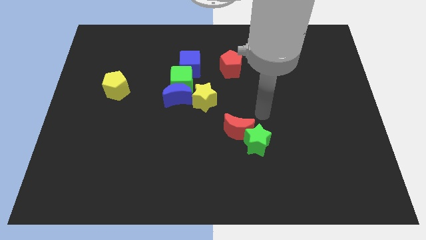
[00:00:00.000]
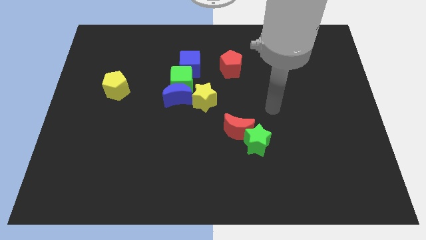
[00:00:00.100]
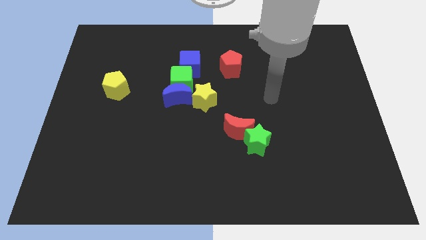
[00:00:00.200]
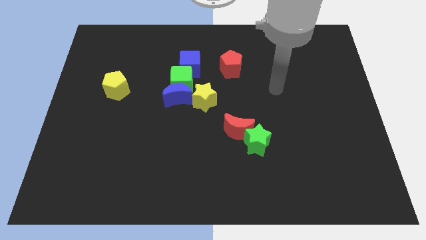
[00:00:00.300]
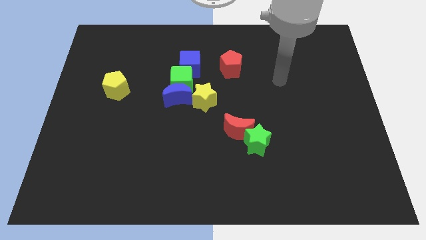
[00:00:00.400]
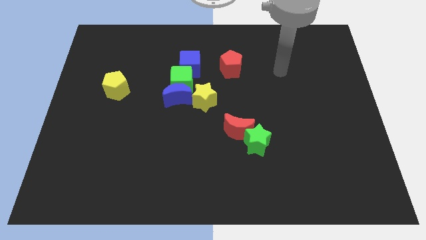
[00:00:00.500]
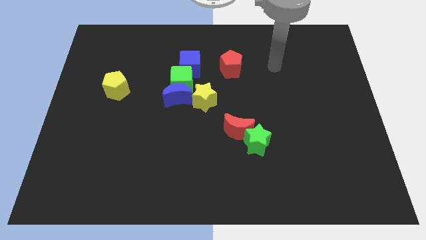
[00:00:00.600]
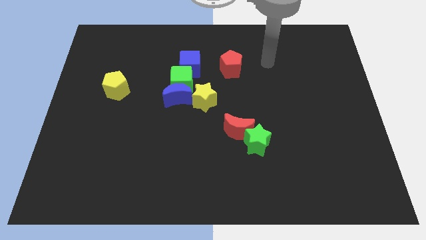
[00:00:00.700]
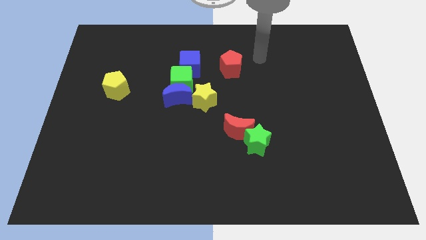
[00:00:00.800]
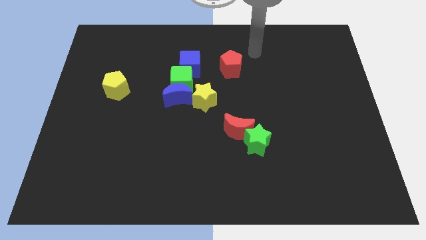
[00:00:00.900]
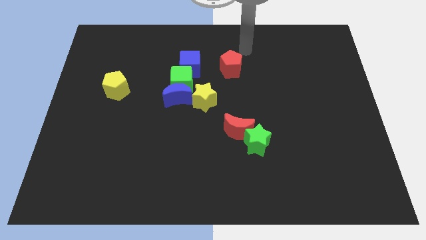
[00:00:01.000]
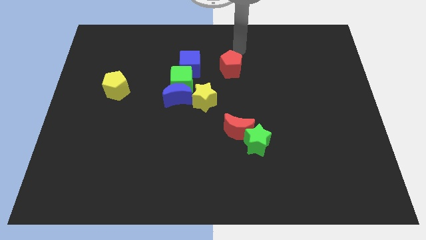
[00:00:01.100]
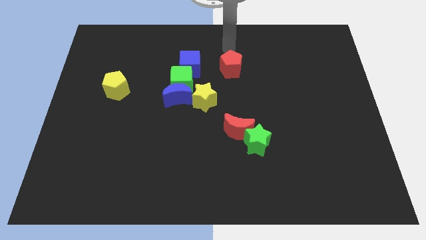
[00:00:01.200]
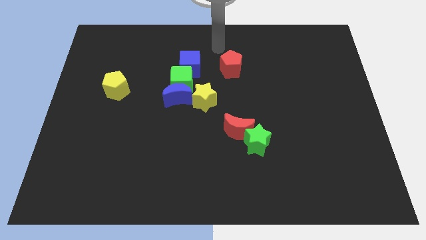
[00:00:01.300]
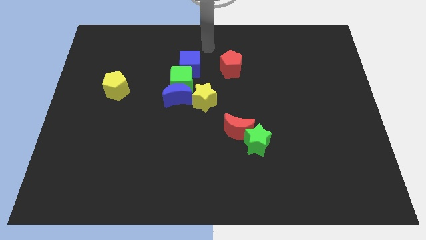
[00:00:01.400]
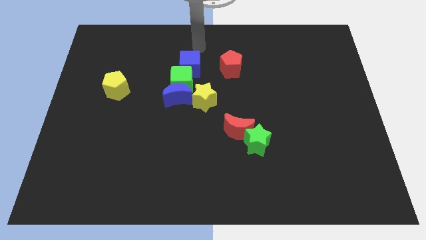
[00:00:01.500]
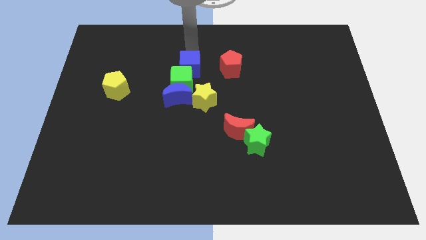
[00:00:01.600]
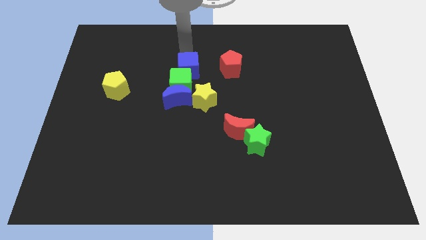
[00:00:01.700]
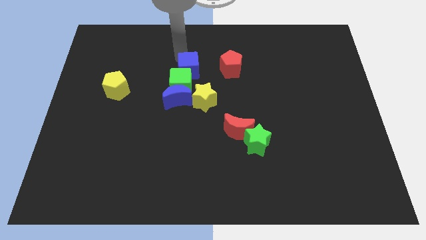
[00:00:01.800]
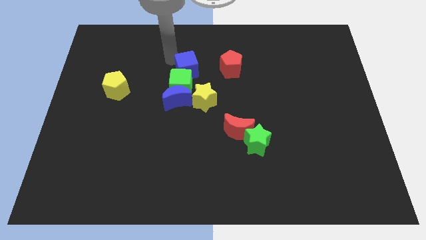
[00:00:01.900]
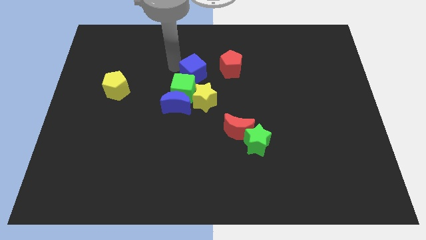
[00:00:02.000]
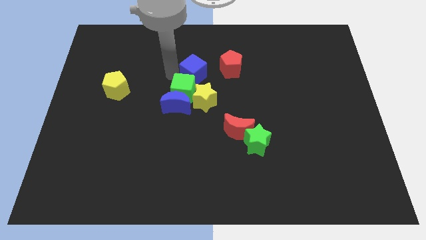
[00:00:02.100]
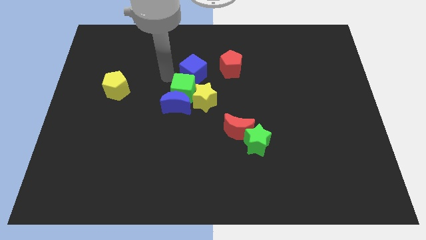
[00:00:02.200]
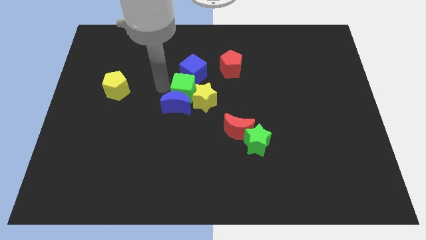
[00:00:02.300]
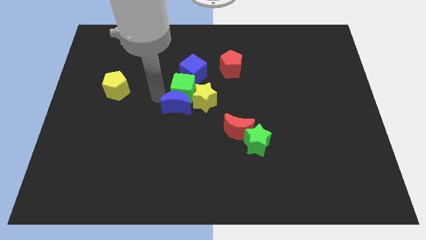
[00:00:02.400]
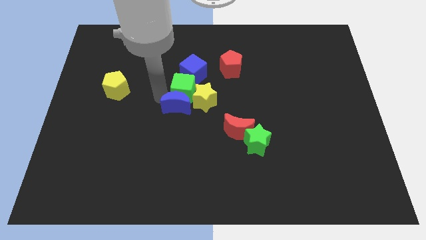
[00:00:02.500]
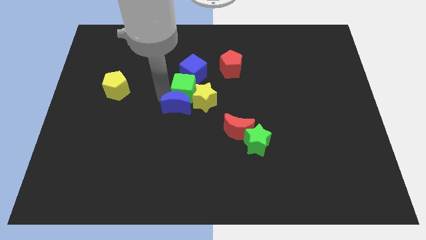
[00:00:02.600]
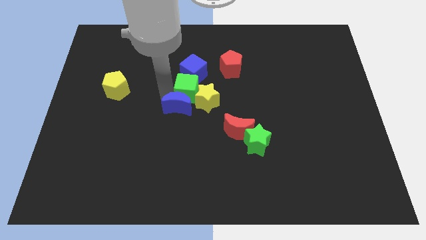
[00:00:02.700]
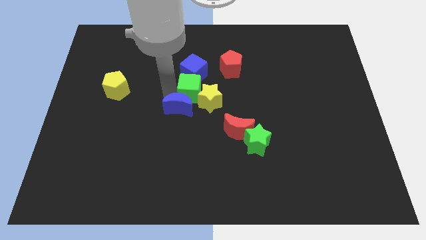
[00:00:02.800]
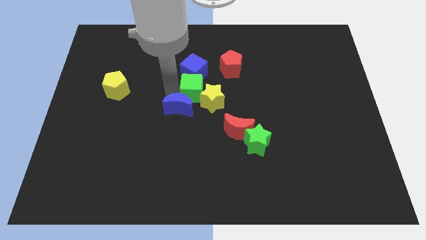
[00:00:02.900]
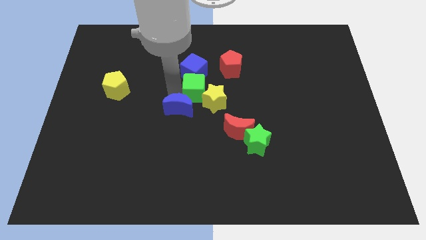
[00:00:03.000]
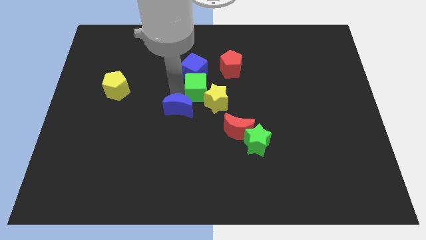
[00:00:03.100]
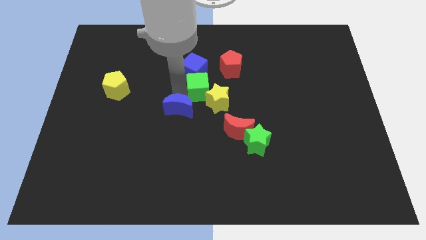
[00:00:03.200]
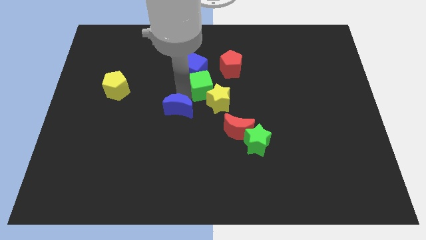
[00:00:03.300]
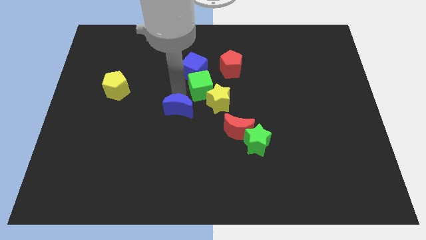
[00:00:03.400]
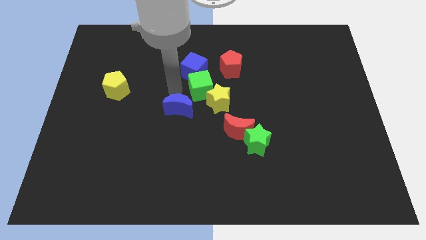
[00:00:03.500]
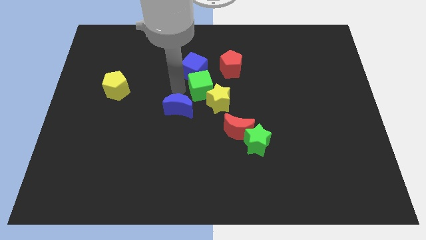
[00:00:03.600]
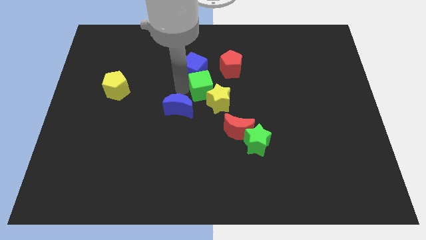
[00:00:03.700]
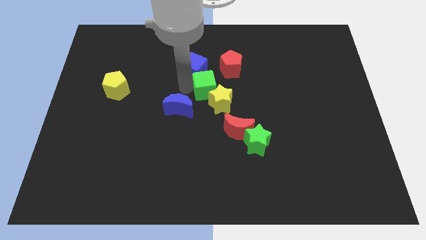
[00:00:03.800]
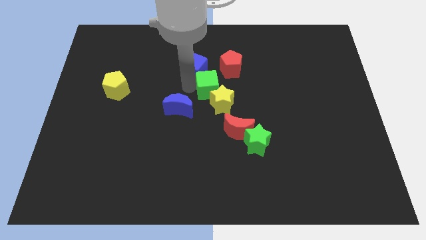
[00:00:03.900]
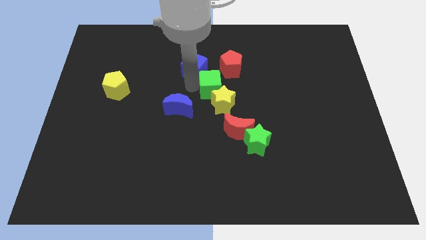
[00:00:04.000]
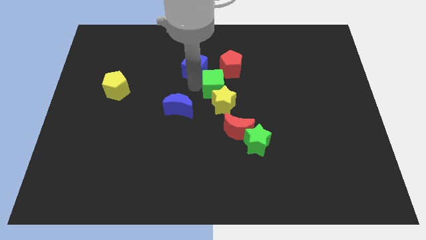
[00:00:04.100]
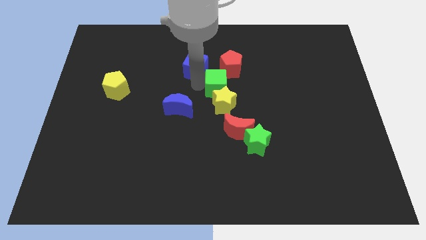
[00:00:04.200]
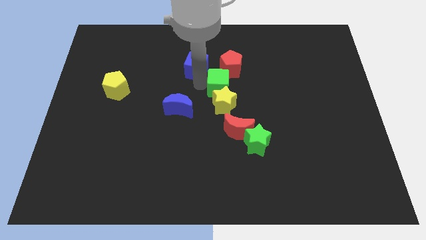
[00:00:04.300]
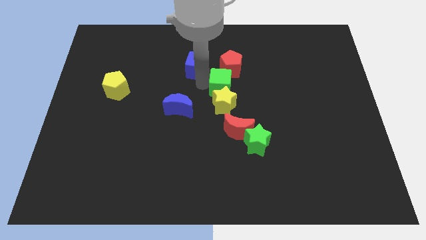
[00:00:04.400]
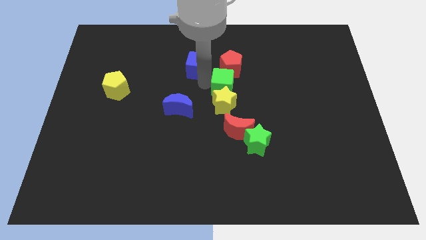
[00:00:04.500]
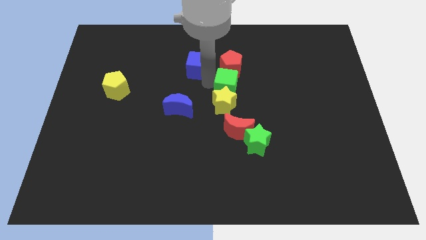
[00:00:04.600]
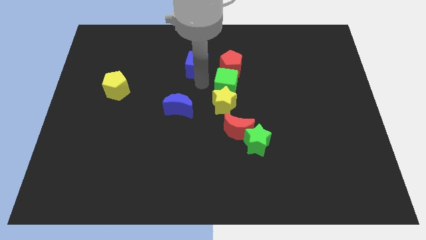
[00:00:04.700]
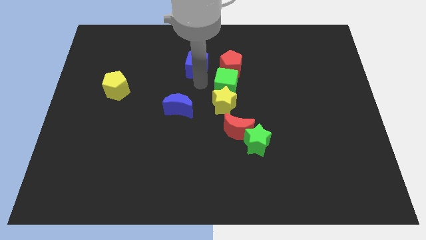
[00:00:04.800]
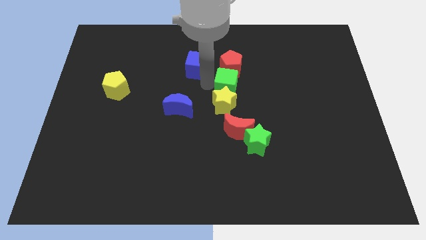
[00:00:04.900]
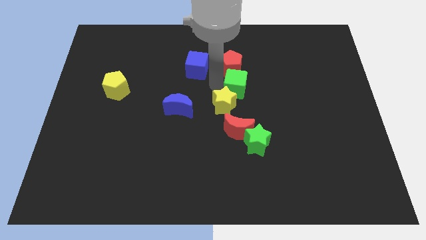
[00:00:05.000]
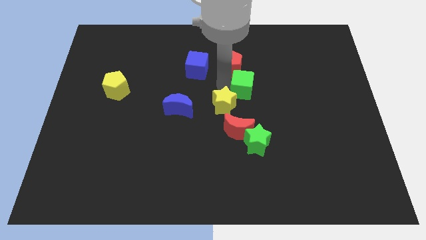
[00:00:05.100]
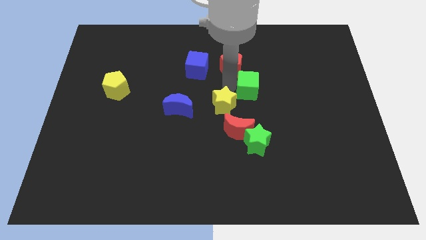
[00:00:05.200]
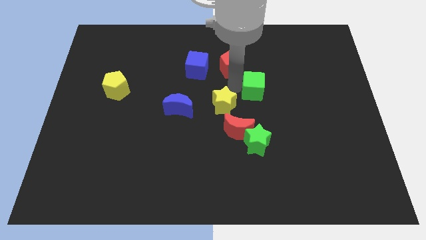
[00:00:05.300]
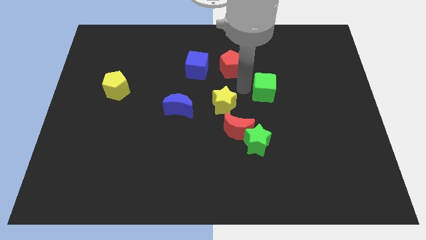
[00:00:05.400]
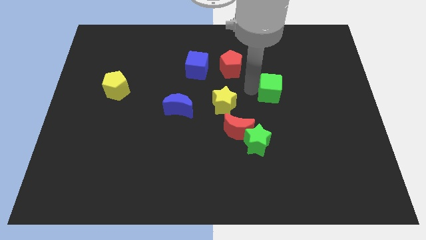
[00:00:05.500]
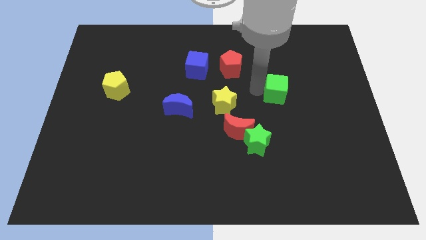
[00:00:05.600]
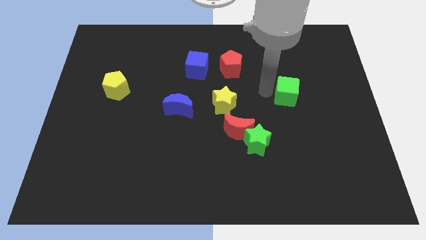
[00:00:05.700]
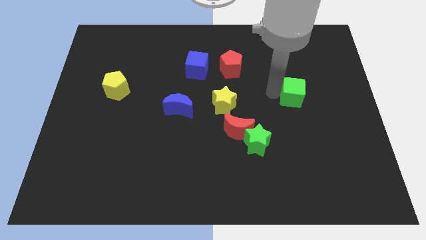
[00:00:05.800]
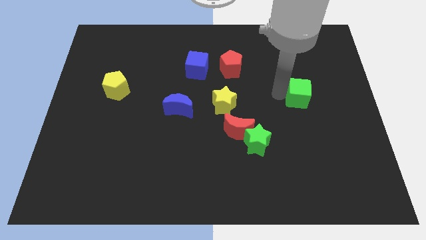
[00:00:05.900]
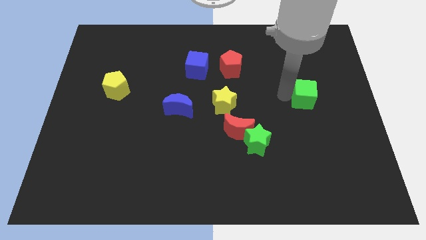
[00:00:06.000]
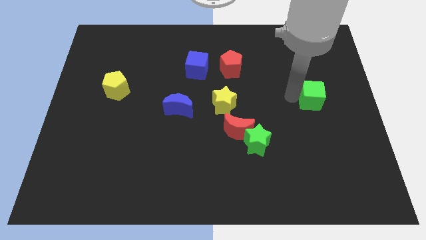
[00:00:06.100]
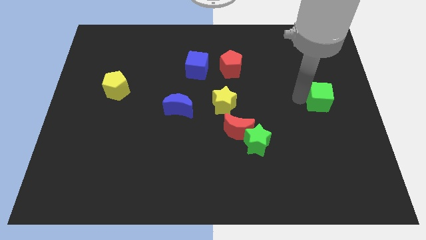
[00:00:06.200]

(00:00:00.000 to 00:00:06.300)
move the green cube to the center right
